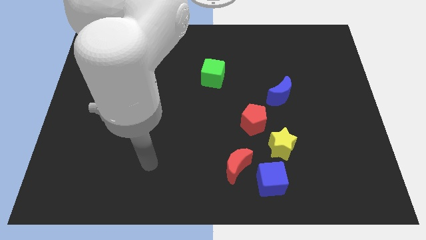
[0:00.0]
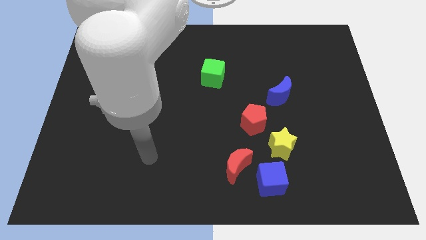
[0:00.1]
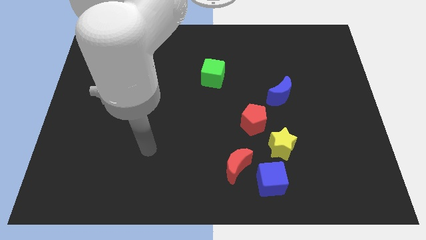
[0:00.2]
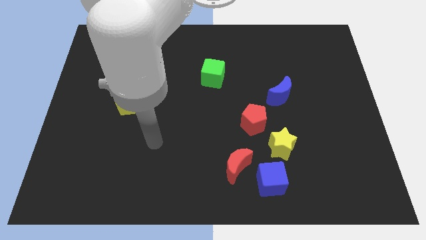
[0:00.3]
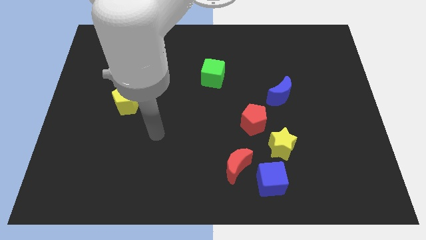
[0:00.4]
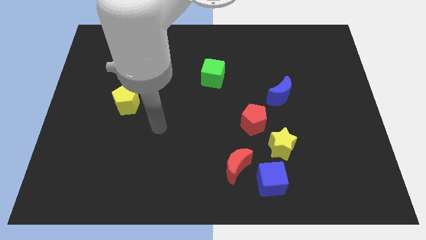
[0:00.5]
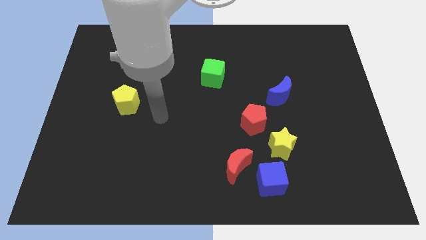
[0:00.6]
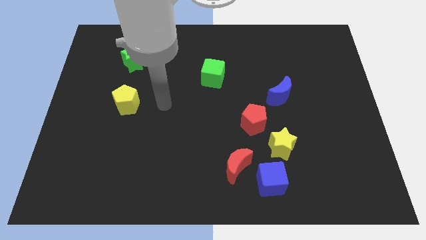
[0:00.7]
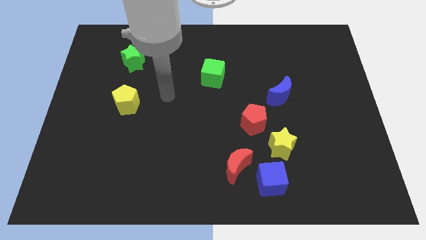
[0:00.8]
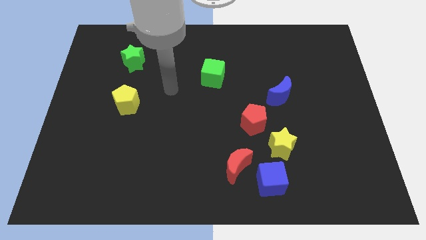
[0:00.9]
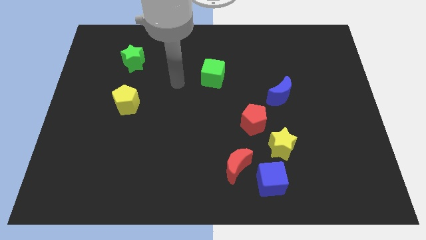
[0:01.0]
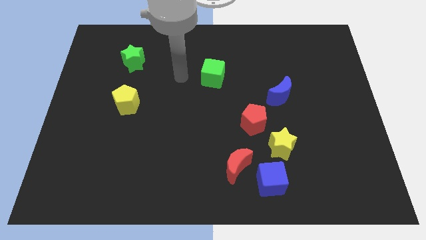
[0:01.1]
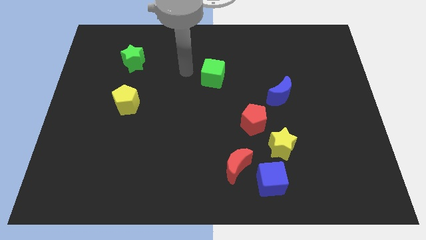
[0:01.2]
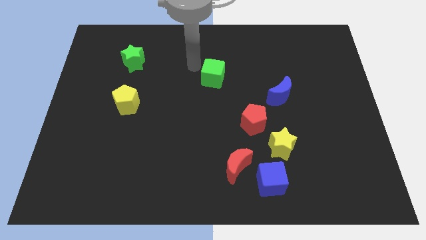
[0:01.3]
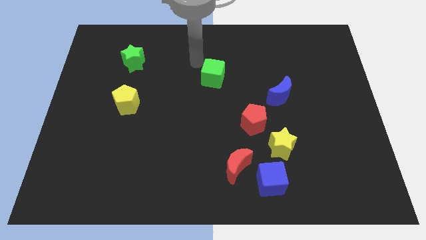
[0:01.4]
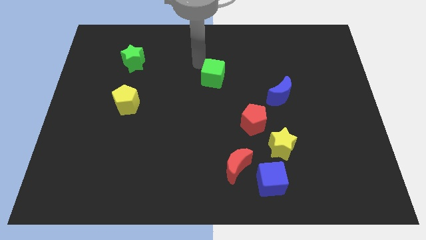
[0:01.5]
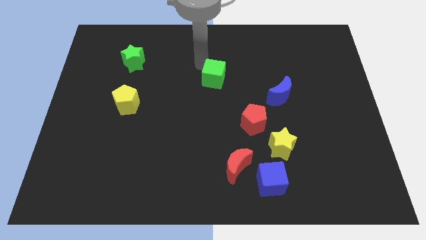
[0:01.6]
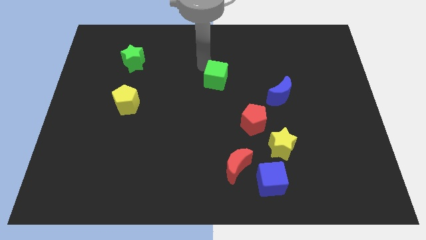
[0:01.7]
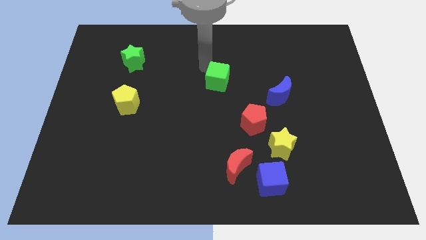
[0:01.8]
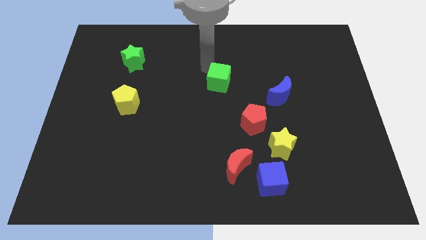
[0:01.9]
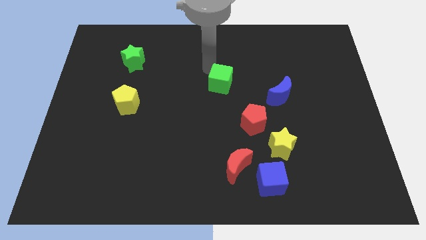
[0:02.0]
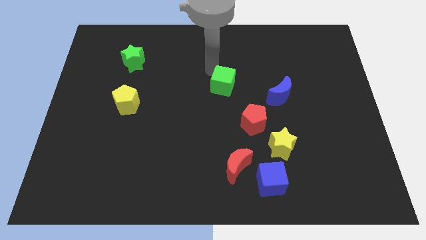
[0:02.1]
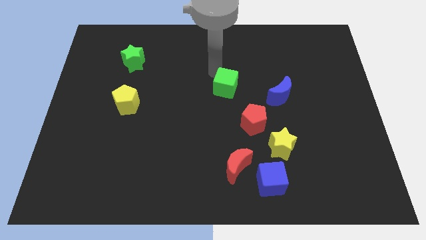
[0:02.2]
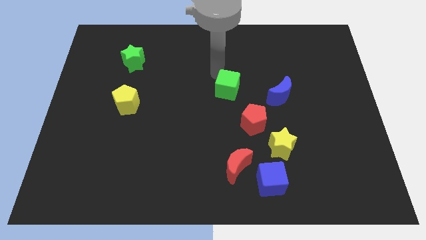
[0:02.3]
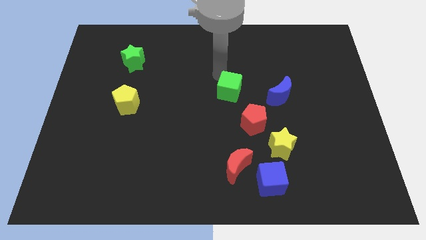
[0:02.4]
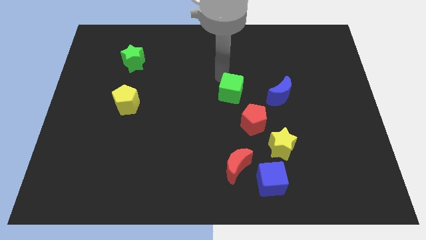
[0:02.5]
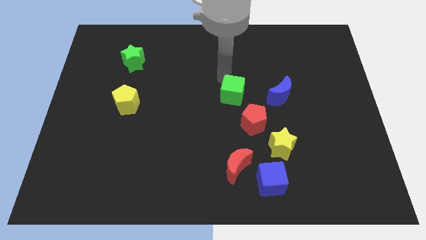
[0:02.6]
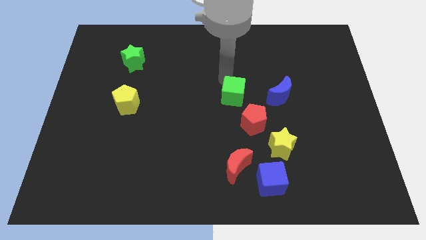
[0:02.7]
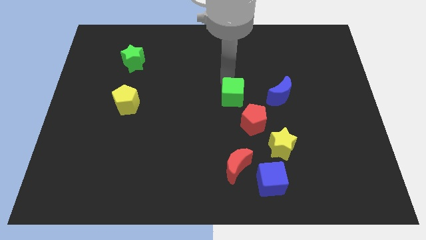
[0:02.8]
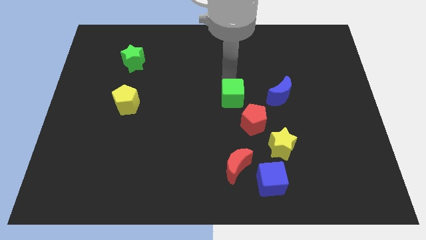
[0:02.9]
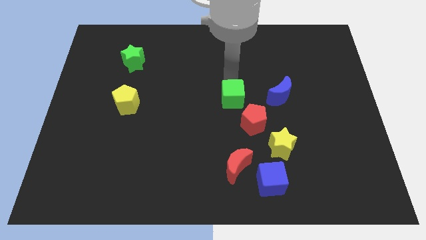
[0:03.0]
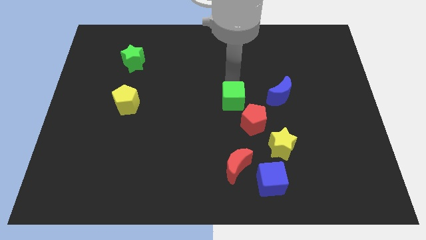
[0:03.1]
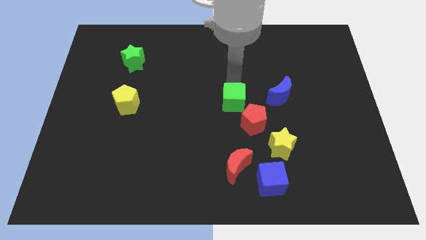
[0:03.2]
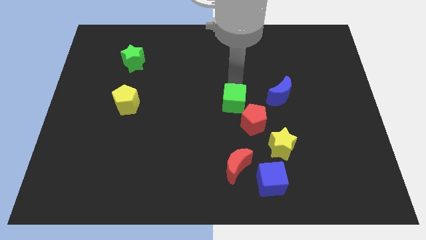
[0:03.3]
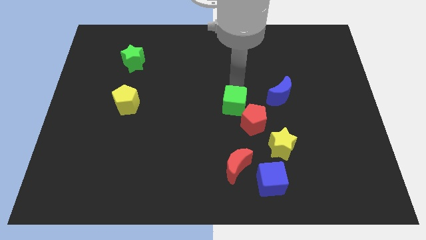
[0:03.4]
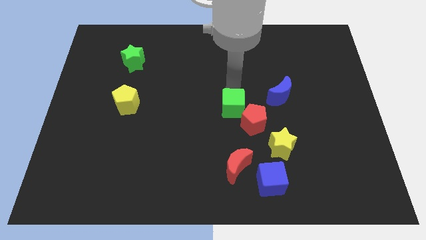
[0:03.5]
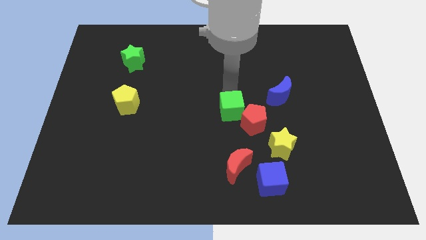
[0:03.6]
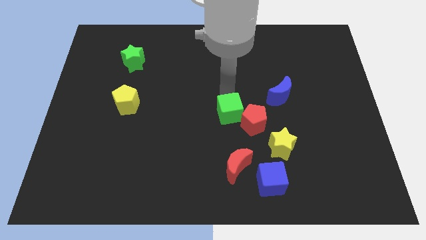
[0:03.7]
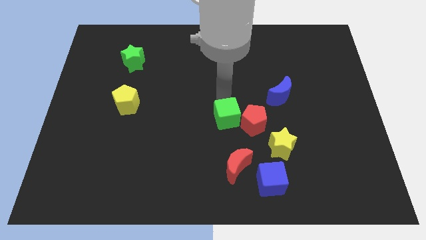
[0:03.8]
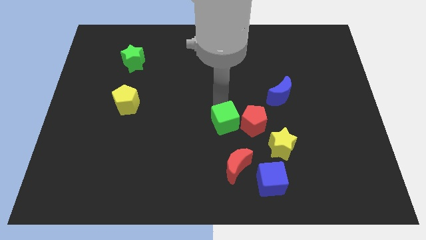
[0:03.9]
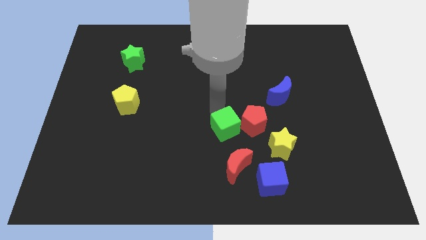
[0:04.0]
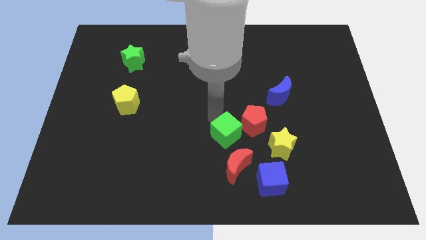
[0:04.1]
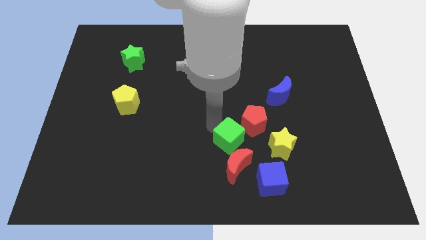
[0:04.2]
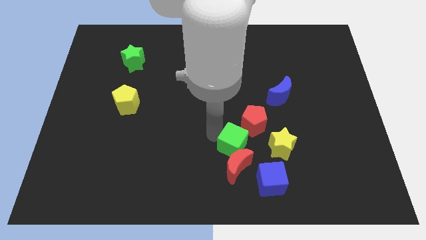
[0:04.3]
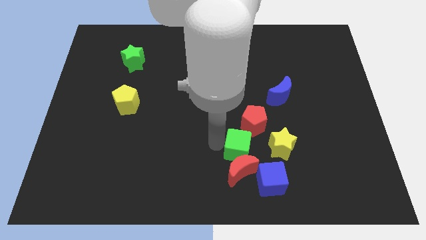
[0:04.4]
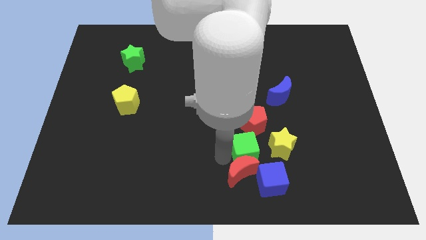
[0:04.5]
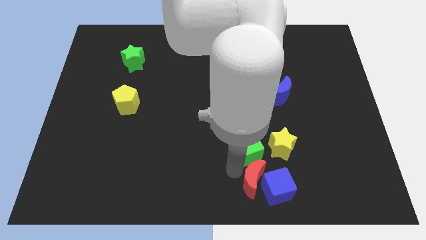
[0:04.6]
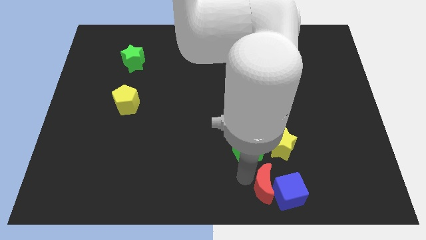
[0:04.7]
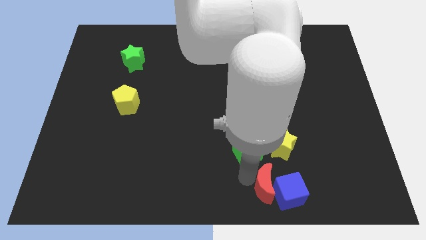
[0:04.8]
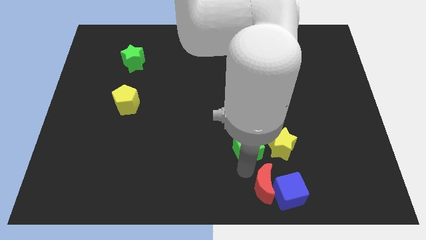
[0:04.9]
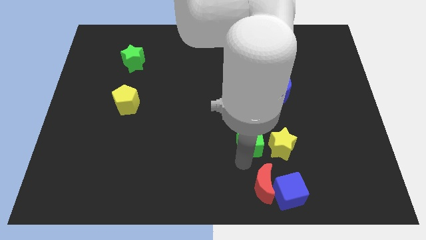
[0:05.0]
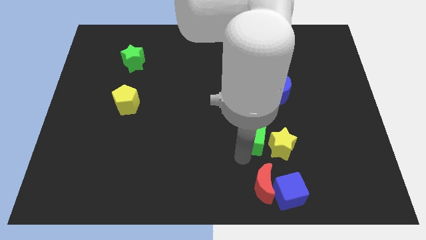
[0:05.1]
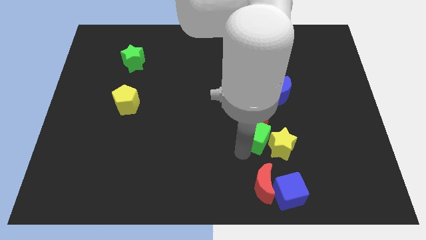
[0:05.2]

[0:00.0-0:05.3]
push the green cube towards the yellow star

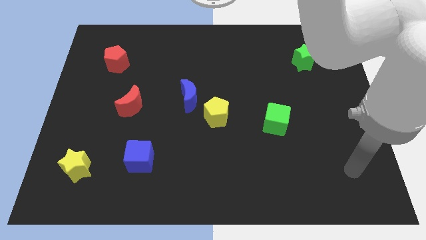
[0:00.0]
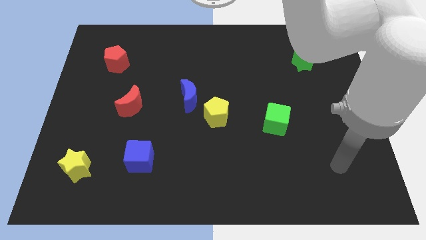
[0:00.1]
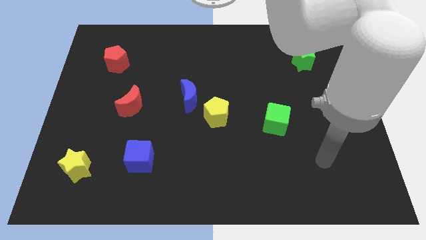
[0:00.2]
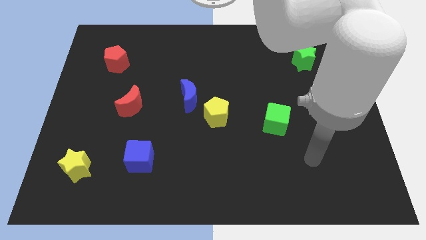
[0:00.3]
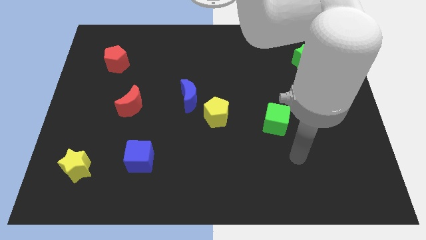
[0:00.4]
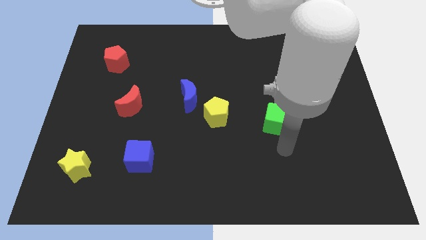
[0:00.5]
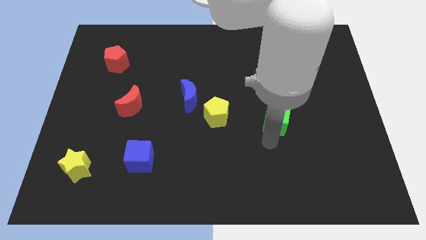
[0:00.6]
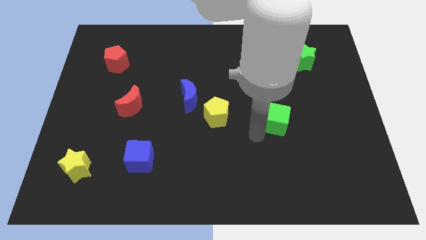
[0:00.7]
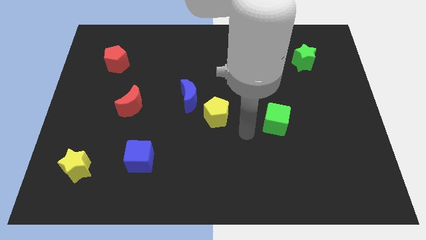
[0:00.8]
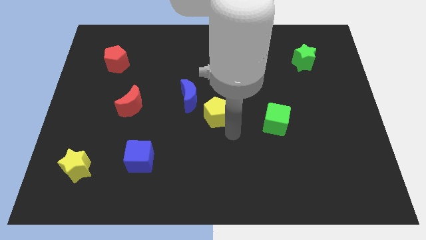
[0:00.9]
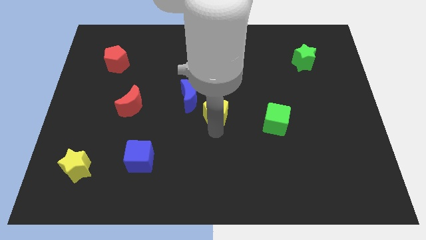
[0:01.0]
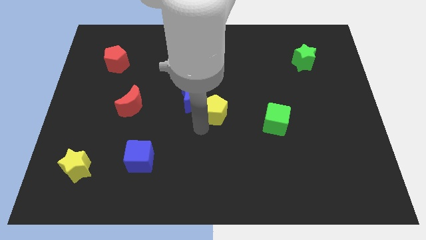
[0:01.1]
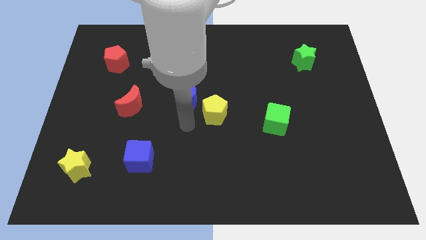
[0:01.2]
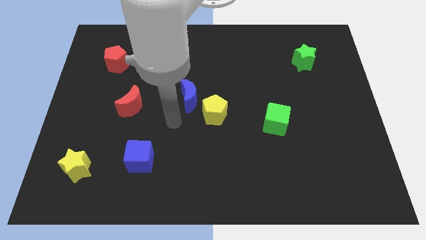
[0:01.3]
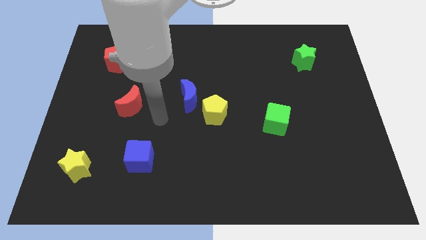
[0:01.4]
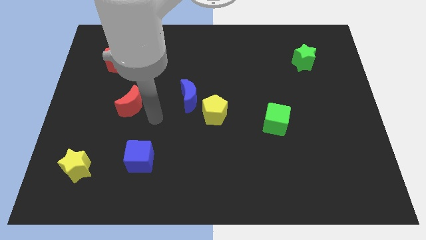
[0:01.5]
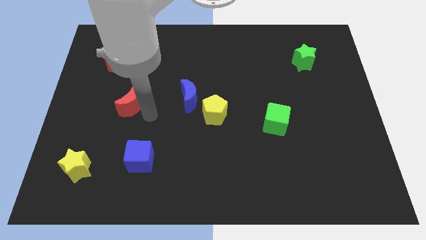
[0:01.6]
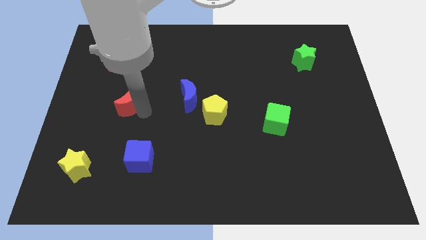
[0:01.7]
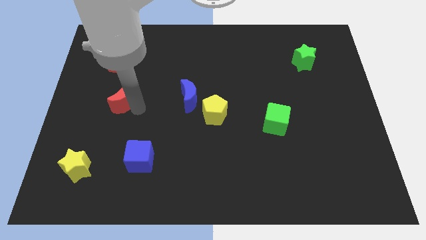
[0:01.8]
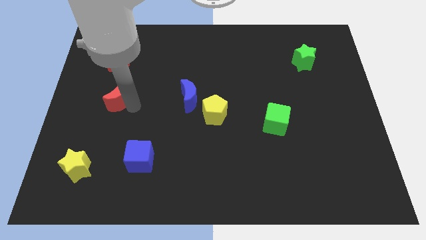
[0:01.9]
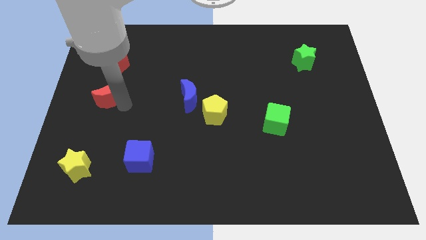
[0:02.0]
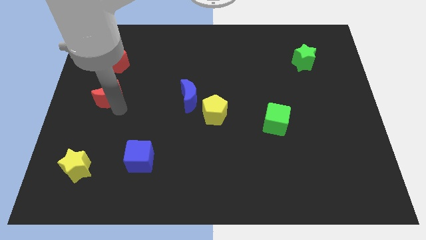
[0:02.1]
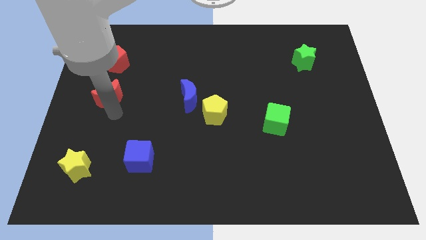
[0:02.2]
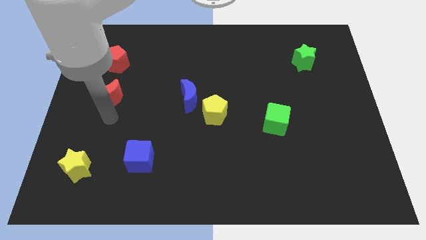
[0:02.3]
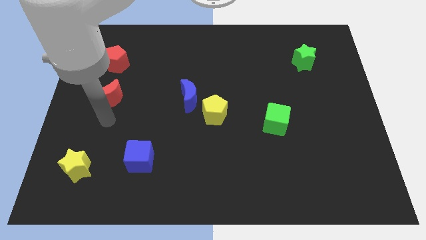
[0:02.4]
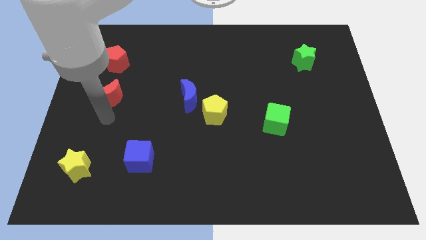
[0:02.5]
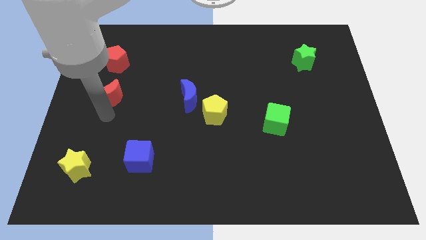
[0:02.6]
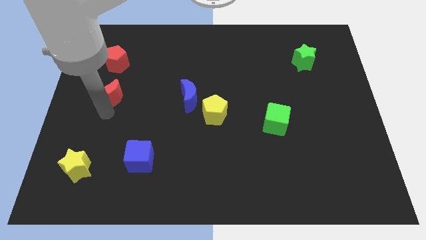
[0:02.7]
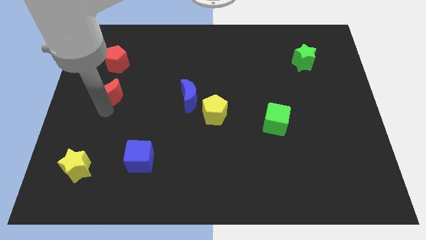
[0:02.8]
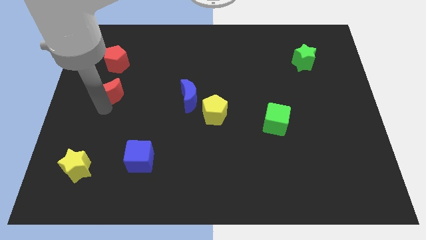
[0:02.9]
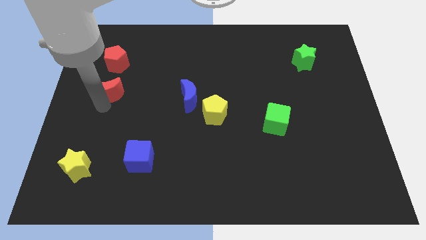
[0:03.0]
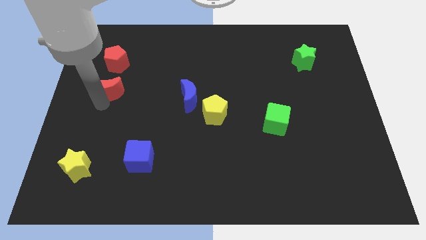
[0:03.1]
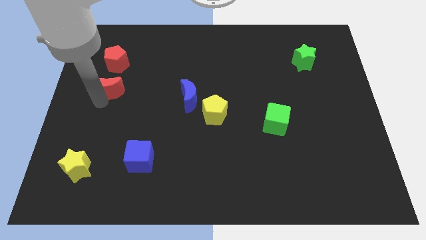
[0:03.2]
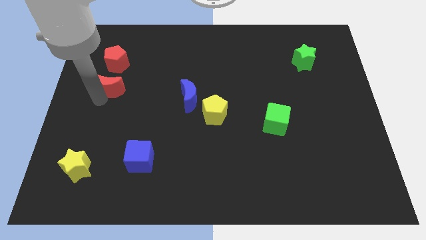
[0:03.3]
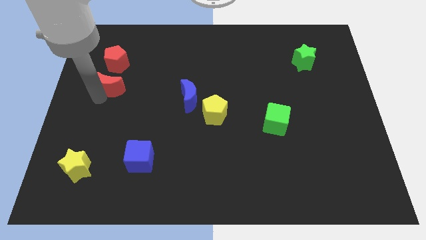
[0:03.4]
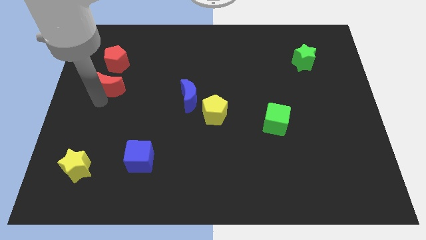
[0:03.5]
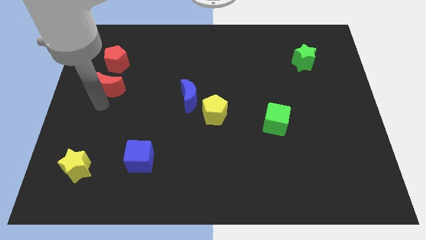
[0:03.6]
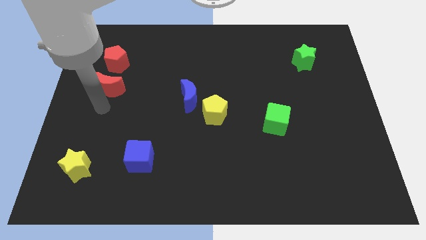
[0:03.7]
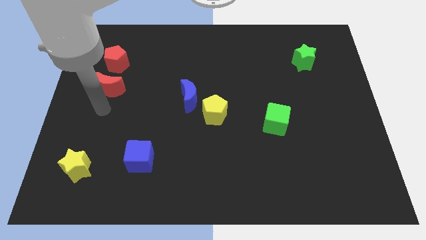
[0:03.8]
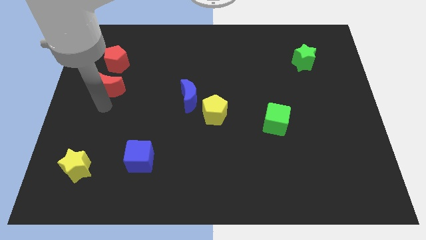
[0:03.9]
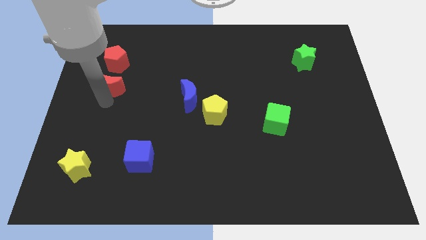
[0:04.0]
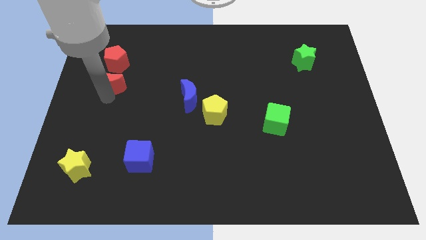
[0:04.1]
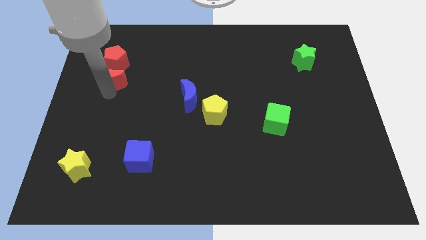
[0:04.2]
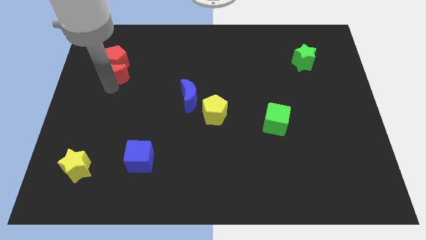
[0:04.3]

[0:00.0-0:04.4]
slide the red moon close to the red pentagon
